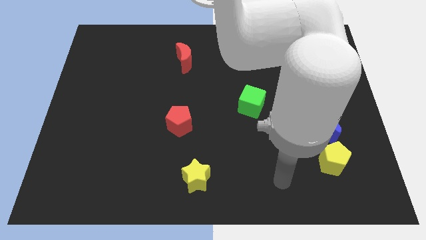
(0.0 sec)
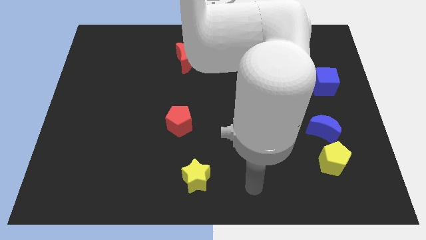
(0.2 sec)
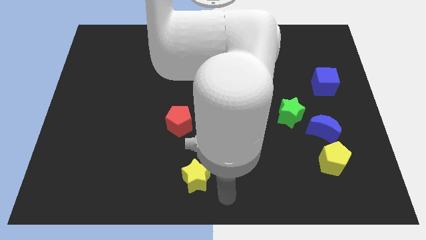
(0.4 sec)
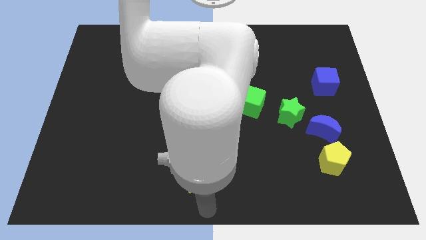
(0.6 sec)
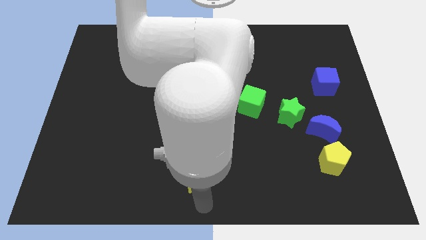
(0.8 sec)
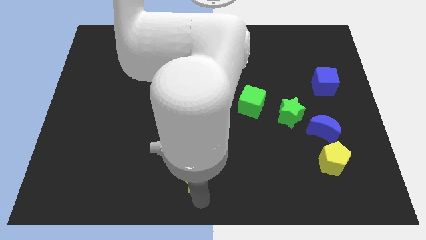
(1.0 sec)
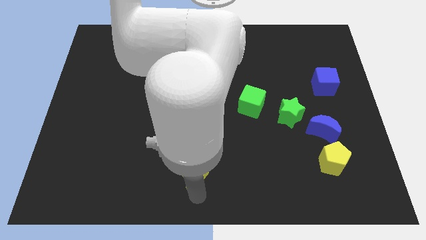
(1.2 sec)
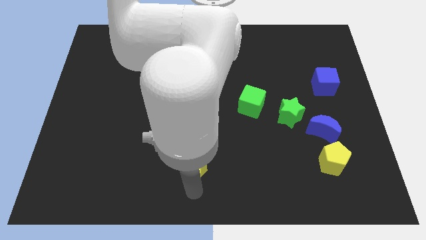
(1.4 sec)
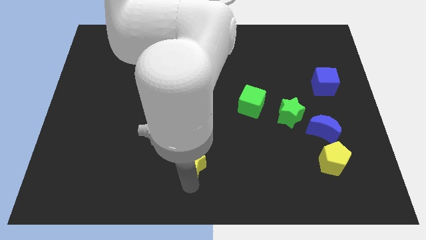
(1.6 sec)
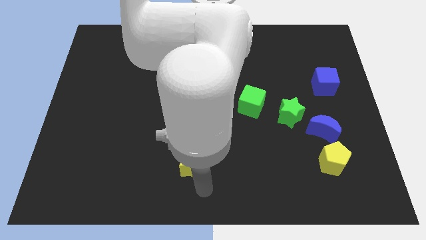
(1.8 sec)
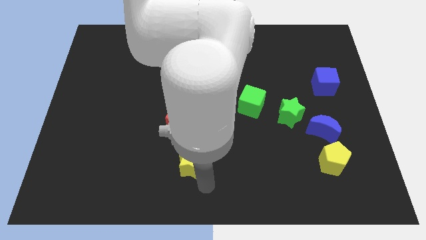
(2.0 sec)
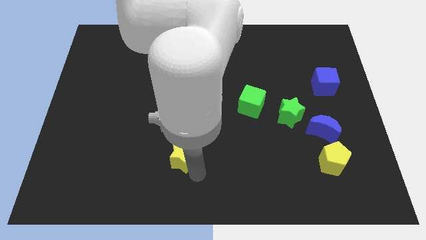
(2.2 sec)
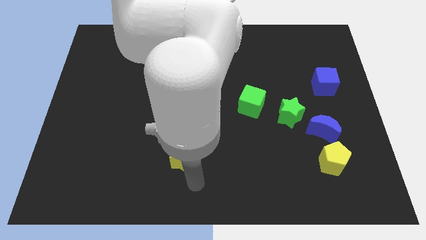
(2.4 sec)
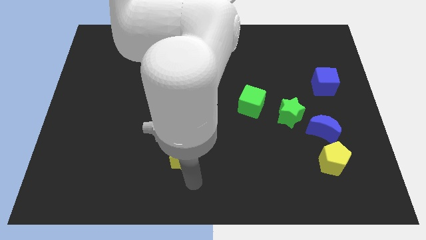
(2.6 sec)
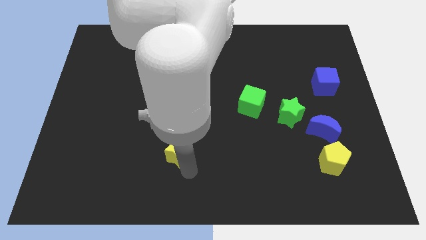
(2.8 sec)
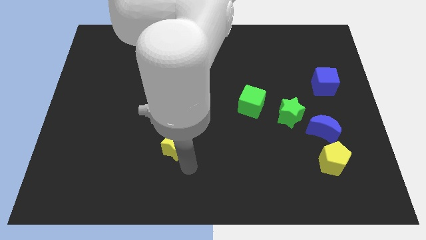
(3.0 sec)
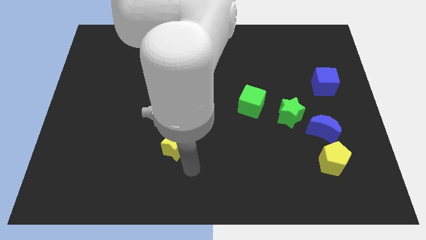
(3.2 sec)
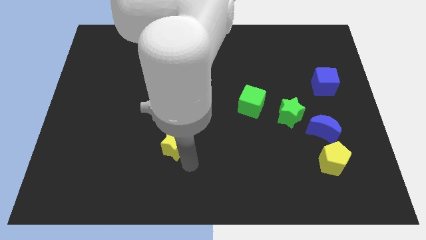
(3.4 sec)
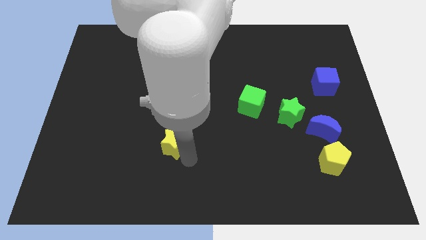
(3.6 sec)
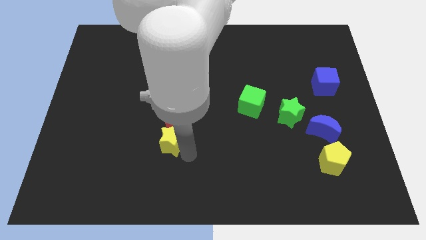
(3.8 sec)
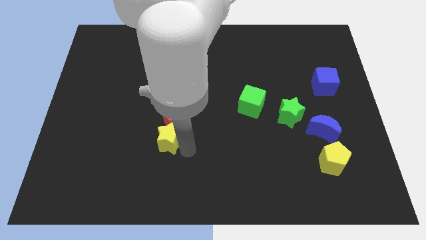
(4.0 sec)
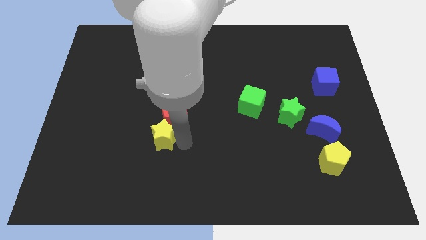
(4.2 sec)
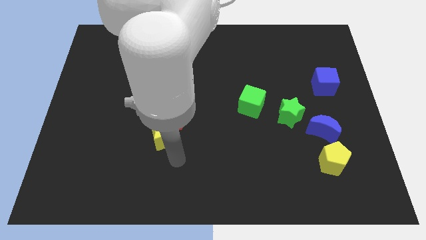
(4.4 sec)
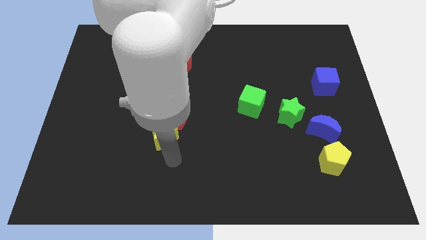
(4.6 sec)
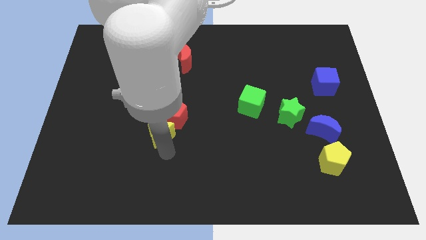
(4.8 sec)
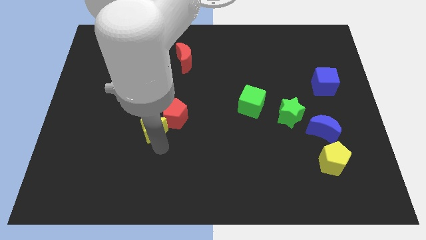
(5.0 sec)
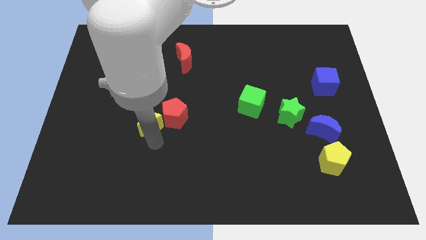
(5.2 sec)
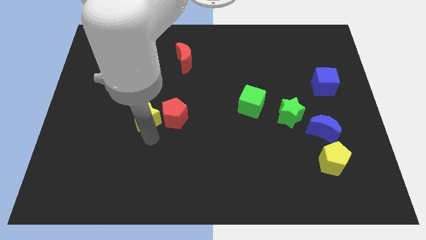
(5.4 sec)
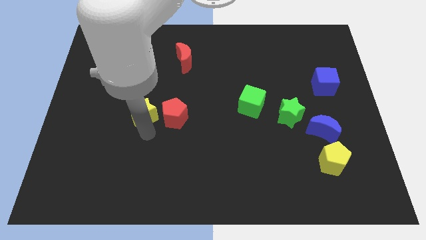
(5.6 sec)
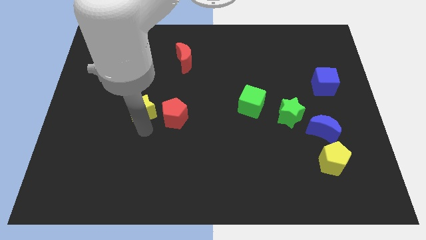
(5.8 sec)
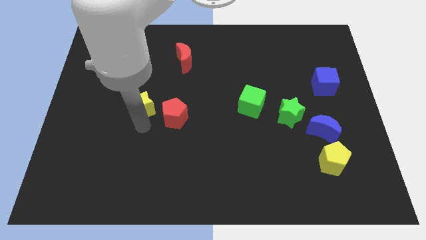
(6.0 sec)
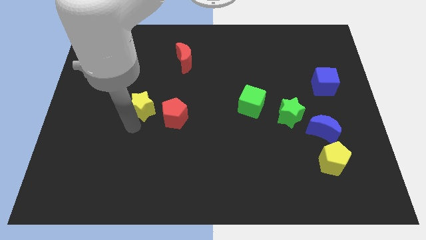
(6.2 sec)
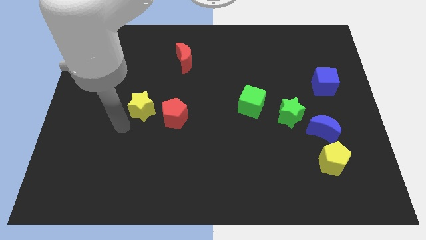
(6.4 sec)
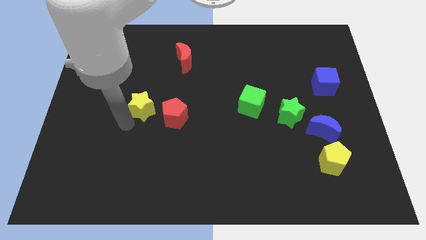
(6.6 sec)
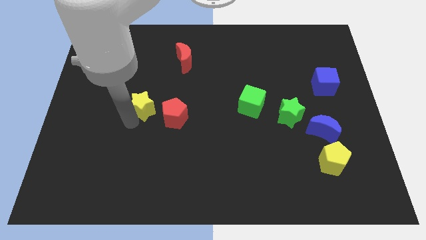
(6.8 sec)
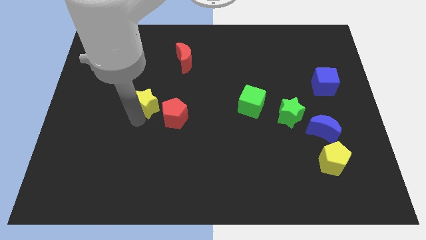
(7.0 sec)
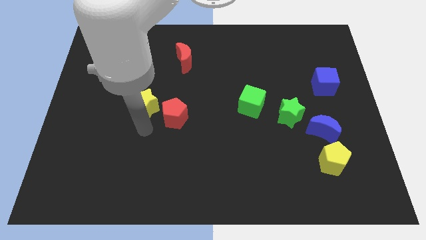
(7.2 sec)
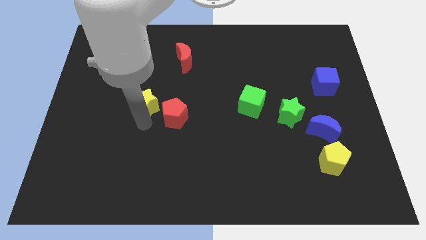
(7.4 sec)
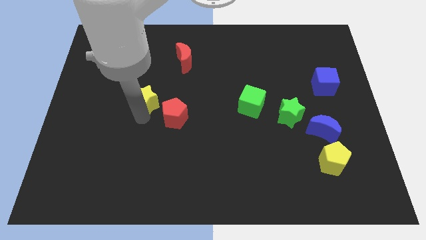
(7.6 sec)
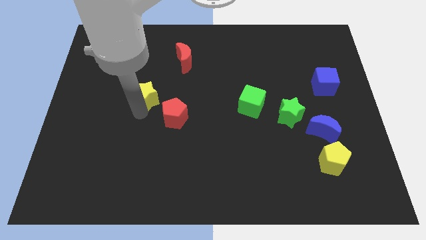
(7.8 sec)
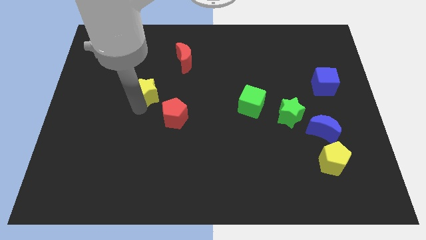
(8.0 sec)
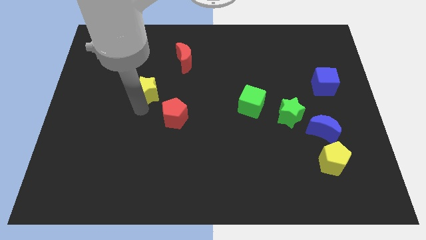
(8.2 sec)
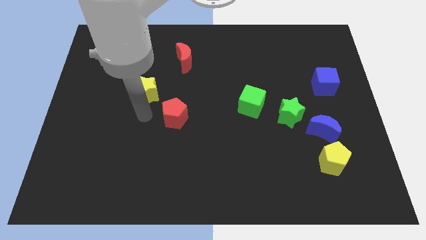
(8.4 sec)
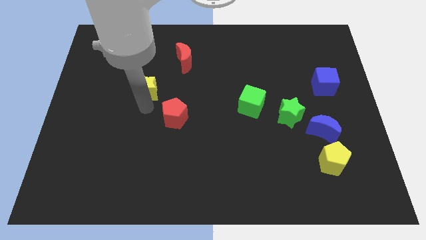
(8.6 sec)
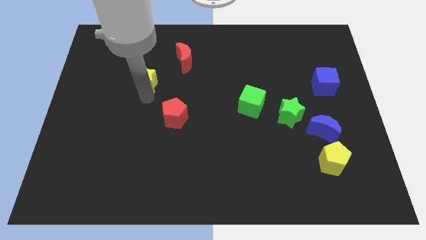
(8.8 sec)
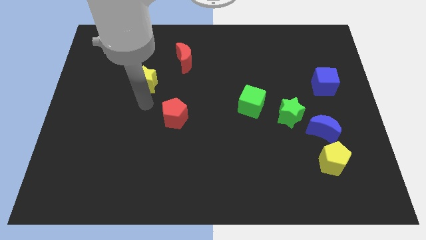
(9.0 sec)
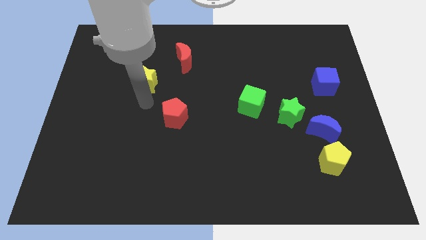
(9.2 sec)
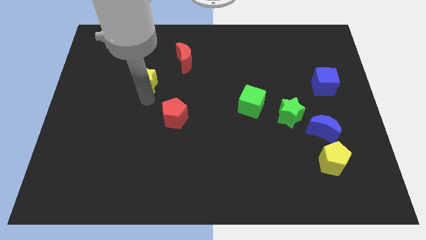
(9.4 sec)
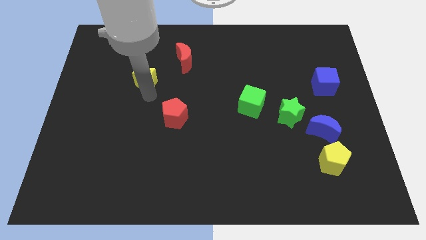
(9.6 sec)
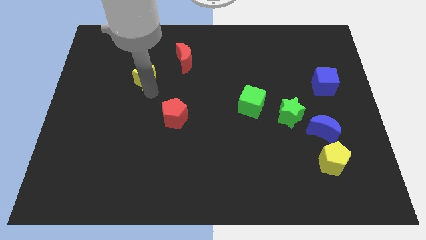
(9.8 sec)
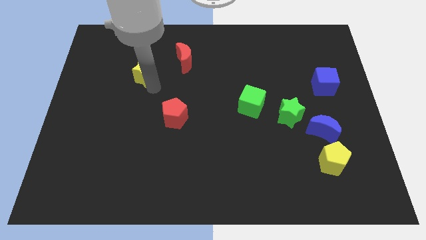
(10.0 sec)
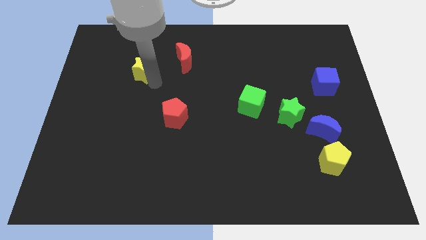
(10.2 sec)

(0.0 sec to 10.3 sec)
move the yellow star just left of the red moon
